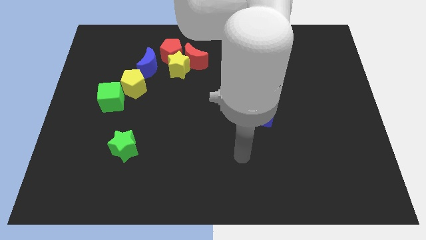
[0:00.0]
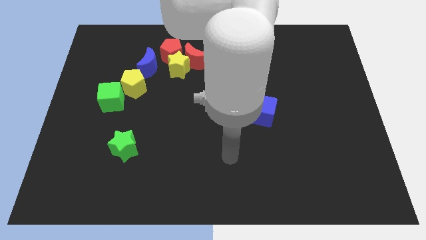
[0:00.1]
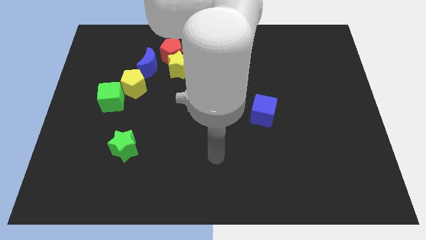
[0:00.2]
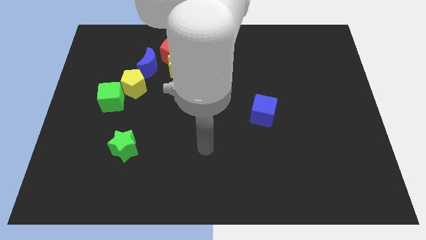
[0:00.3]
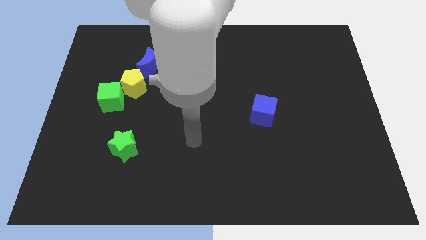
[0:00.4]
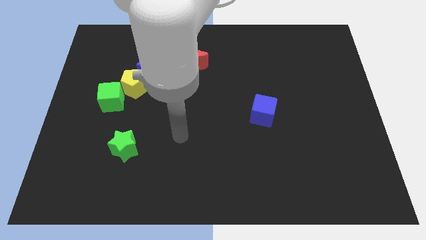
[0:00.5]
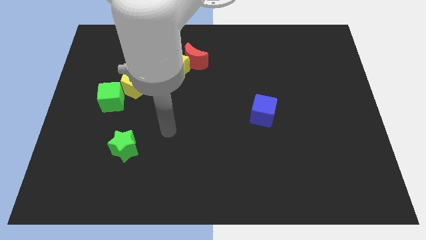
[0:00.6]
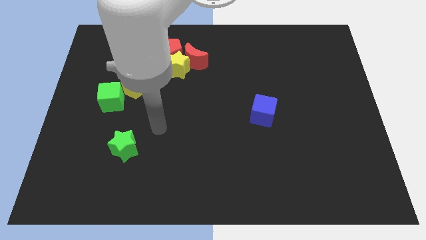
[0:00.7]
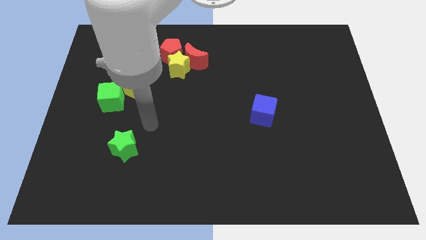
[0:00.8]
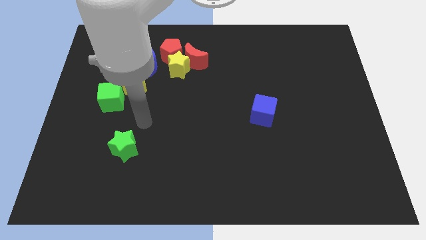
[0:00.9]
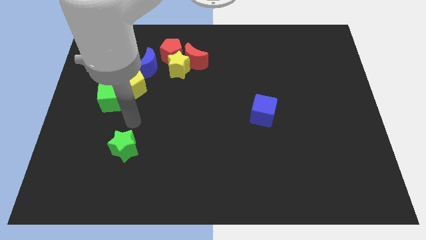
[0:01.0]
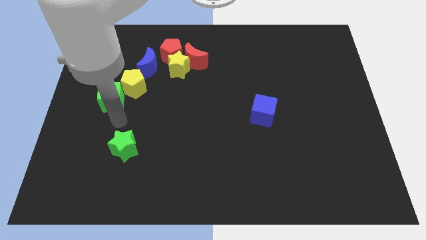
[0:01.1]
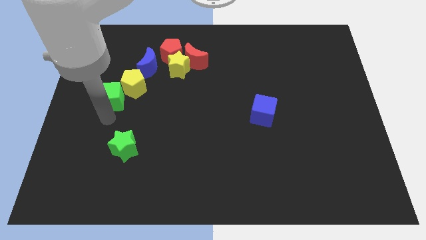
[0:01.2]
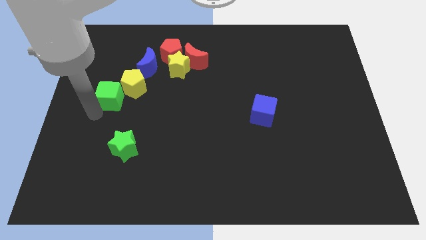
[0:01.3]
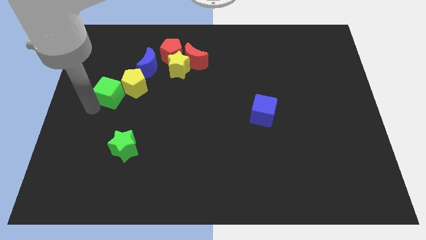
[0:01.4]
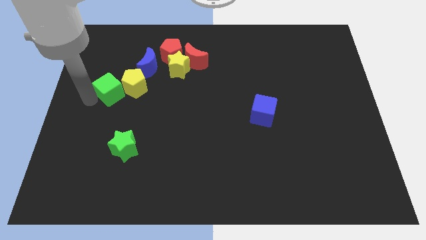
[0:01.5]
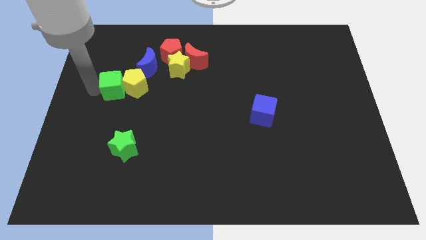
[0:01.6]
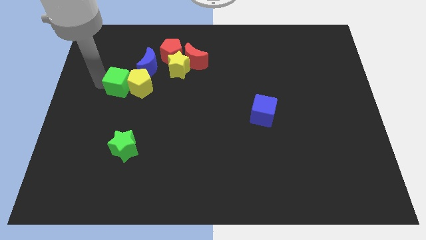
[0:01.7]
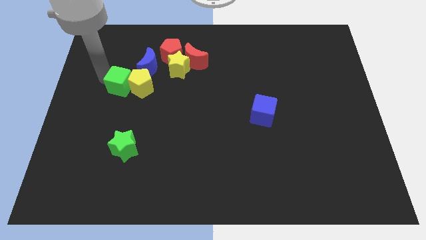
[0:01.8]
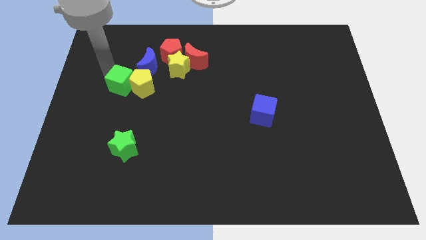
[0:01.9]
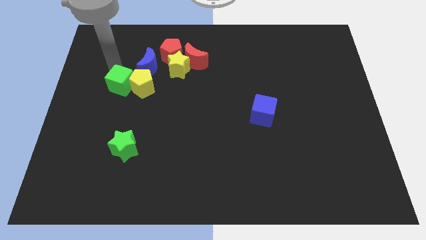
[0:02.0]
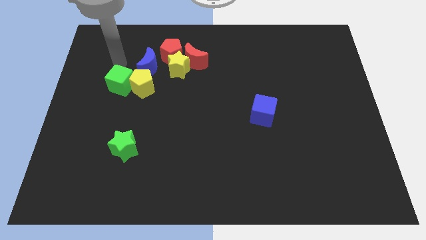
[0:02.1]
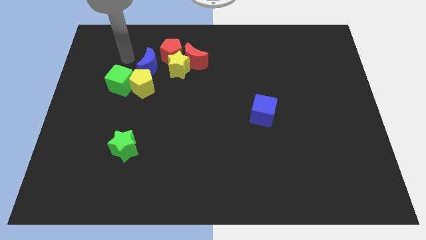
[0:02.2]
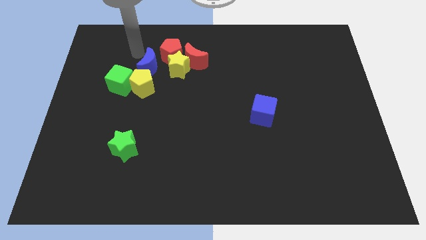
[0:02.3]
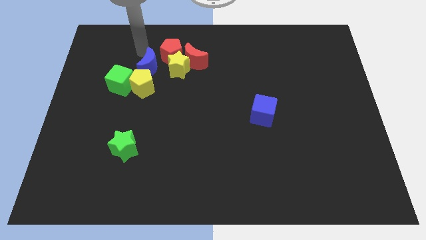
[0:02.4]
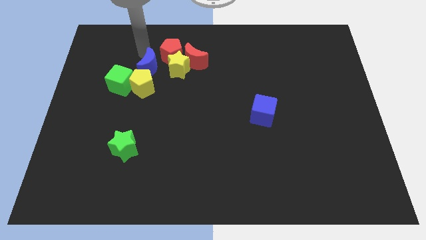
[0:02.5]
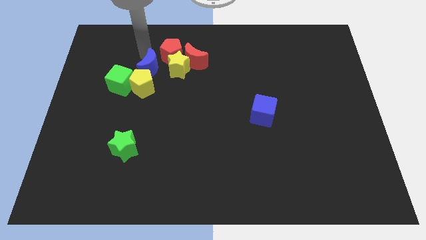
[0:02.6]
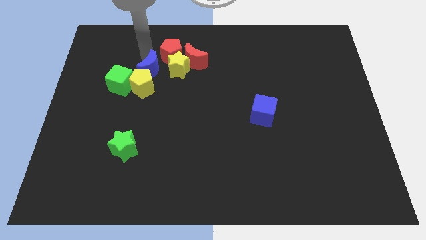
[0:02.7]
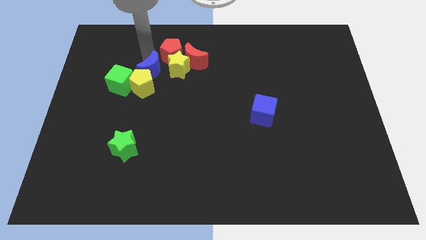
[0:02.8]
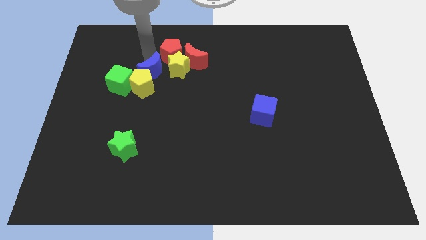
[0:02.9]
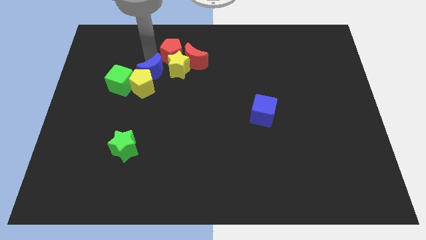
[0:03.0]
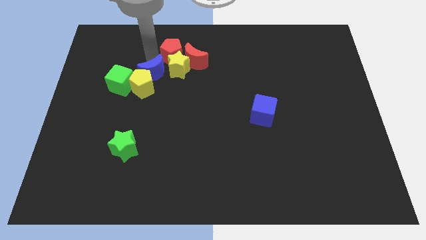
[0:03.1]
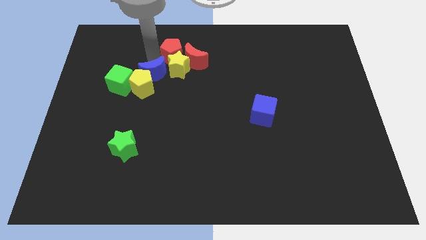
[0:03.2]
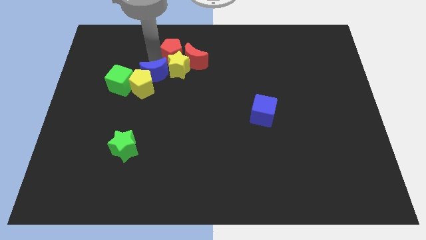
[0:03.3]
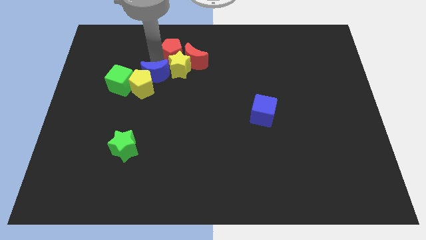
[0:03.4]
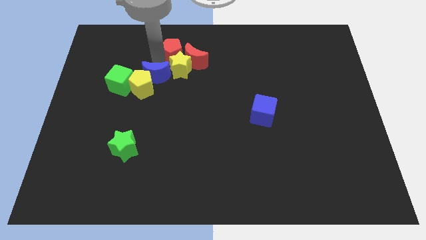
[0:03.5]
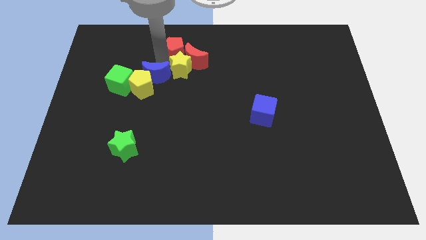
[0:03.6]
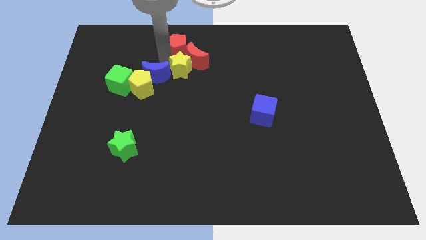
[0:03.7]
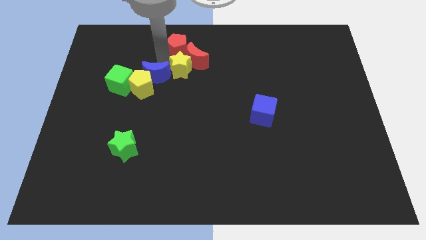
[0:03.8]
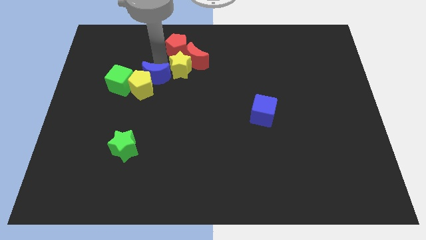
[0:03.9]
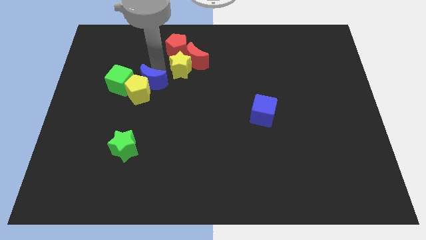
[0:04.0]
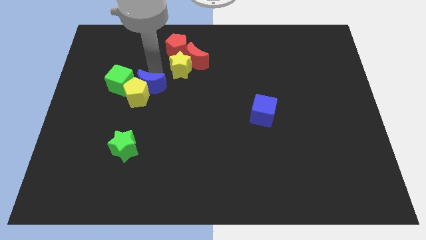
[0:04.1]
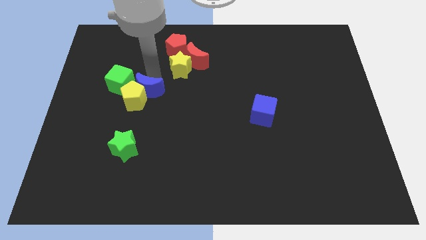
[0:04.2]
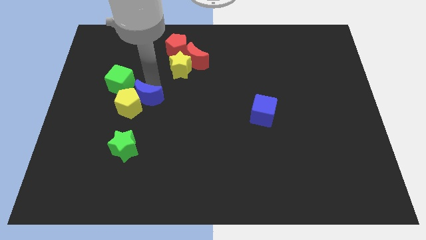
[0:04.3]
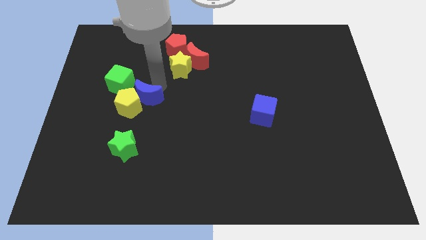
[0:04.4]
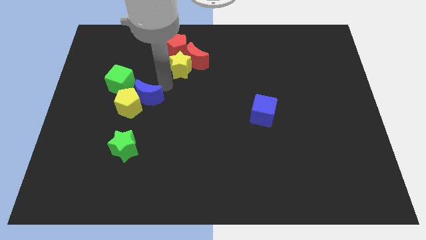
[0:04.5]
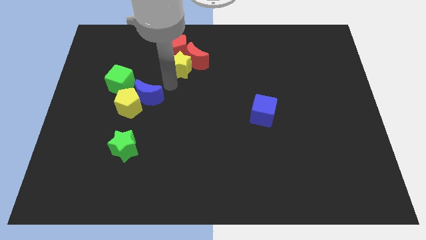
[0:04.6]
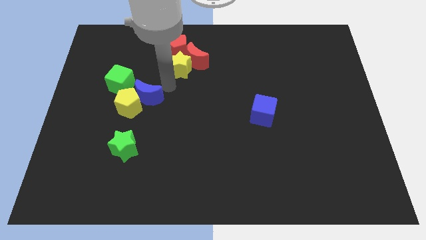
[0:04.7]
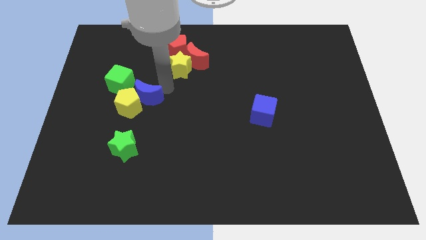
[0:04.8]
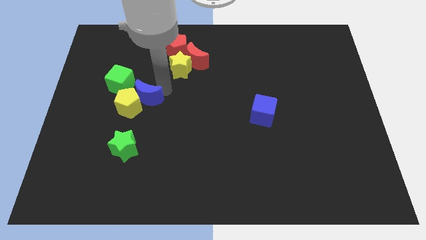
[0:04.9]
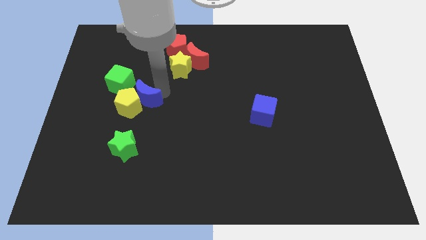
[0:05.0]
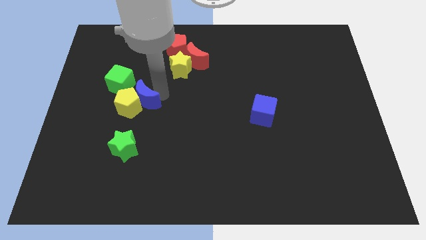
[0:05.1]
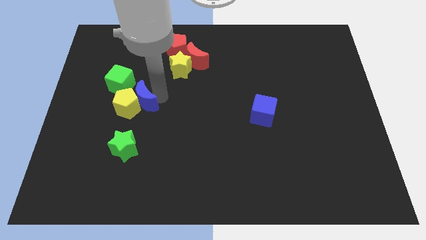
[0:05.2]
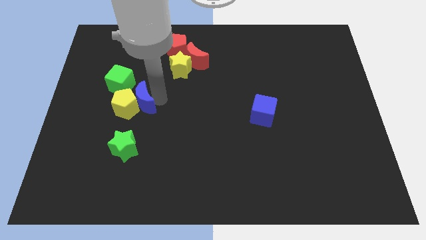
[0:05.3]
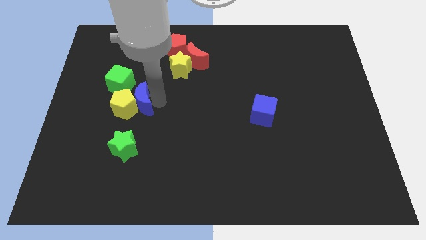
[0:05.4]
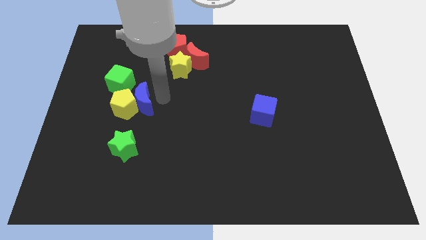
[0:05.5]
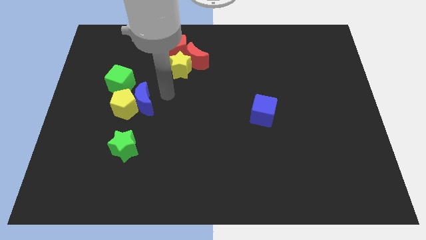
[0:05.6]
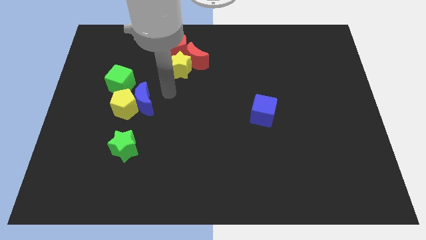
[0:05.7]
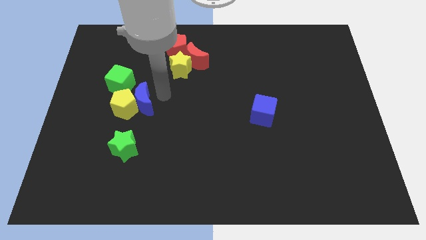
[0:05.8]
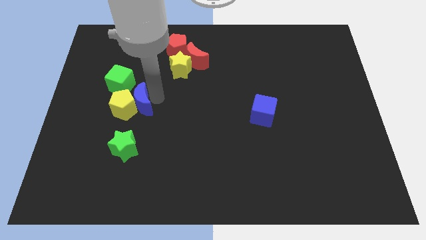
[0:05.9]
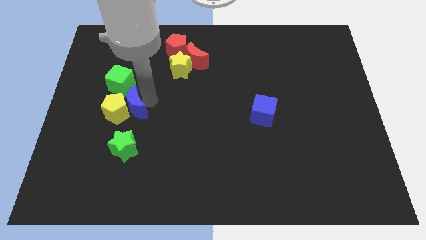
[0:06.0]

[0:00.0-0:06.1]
move the blue moon below the green cube

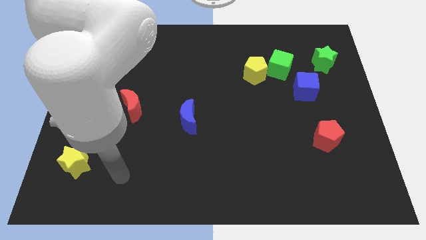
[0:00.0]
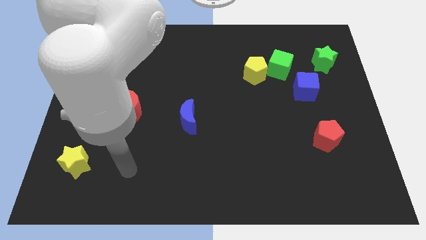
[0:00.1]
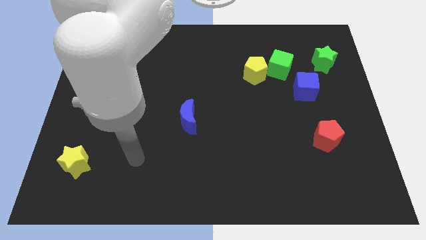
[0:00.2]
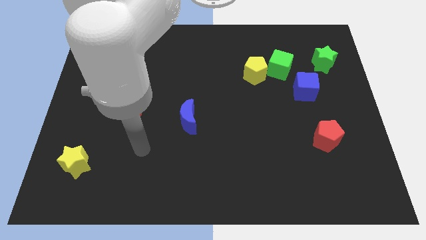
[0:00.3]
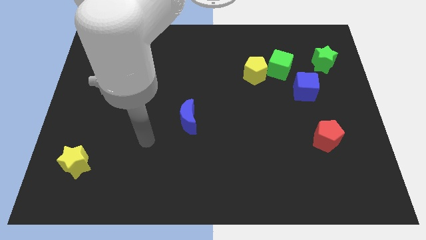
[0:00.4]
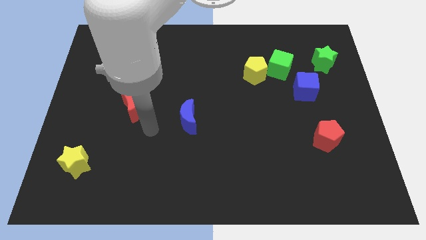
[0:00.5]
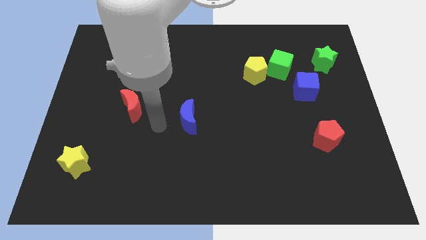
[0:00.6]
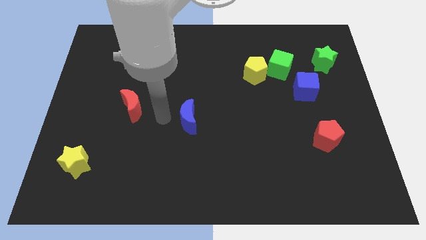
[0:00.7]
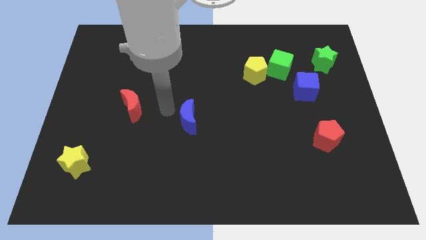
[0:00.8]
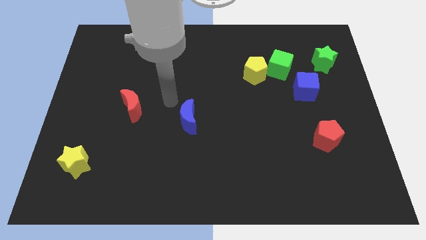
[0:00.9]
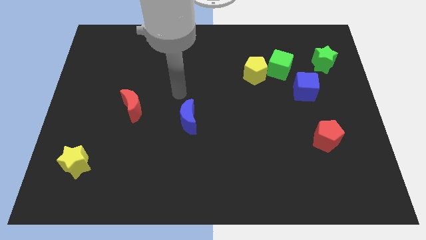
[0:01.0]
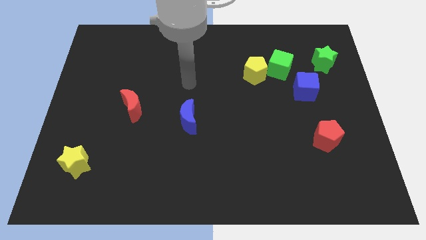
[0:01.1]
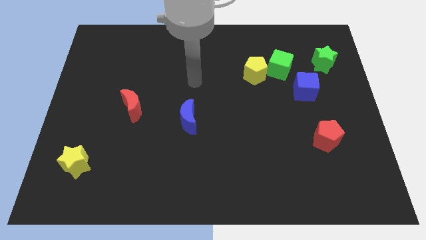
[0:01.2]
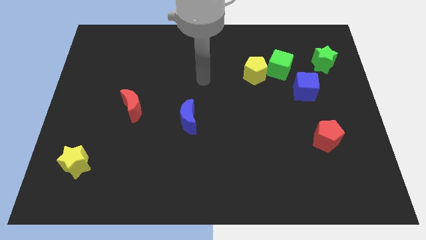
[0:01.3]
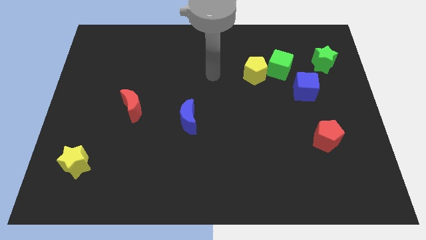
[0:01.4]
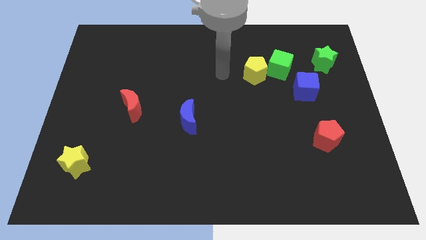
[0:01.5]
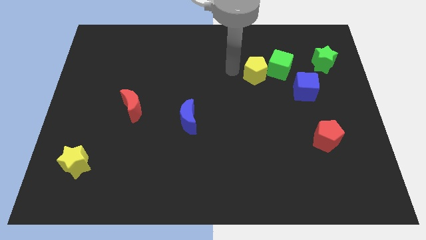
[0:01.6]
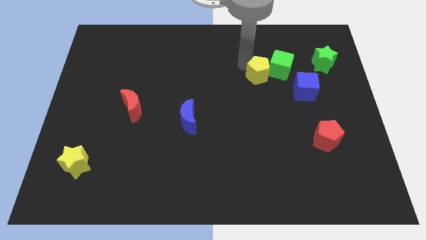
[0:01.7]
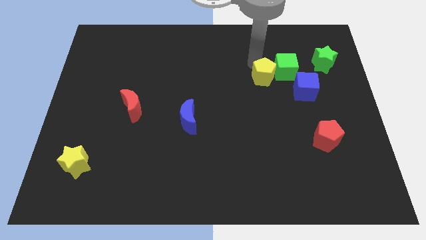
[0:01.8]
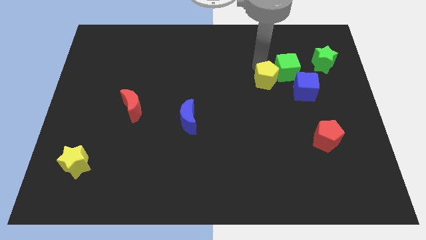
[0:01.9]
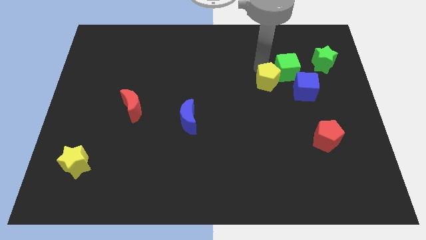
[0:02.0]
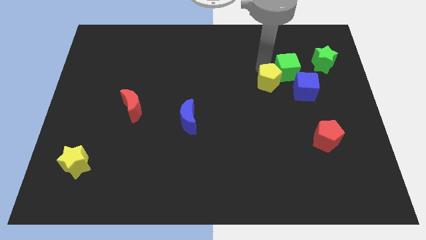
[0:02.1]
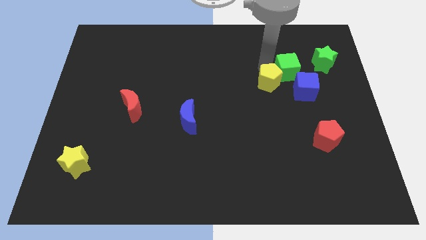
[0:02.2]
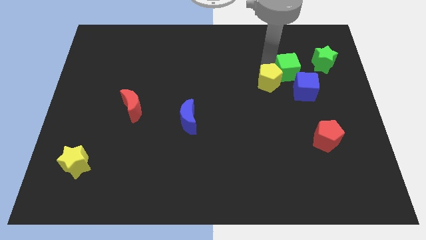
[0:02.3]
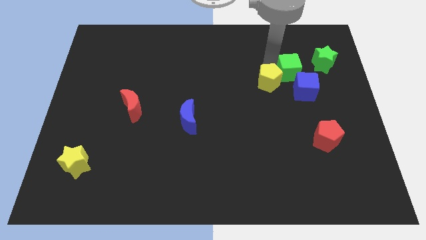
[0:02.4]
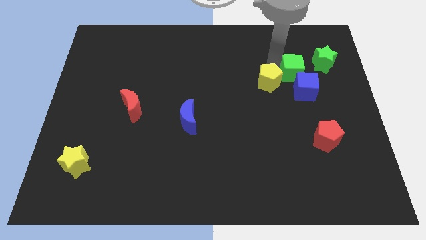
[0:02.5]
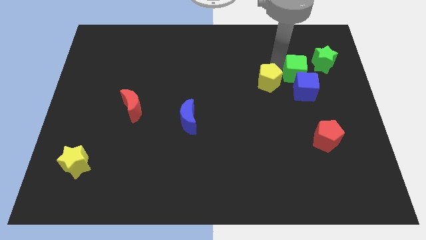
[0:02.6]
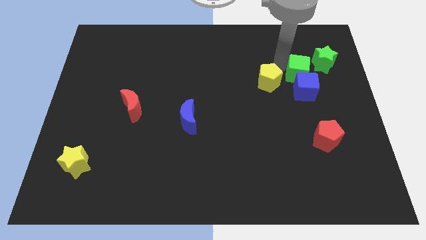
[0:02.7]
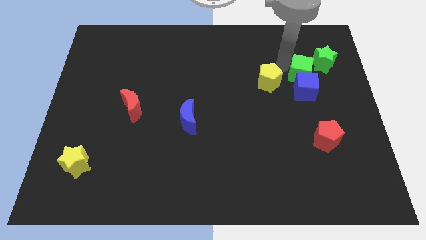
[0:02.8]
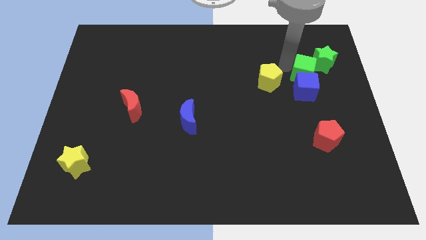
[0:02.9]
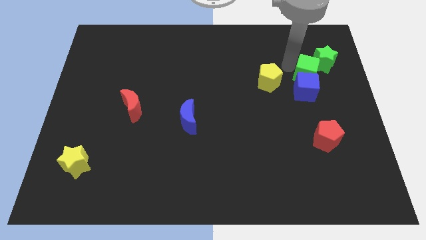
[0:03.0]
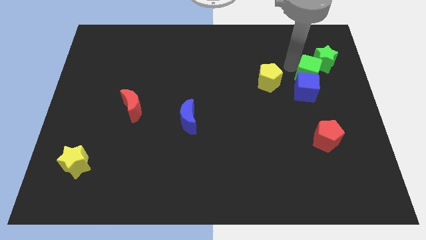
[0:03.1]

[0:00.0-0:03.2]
move the green cube to the bottom of the green star
